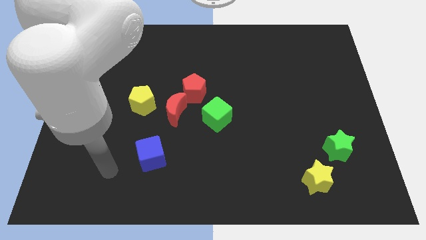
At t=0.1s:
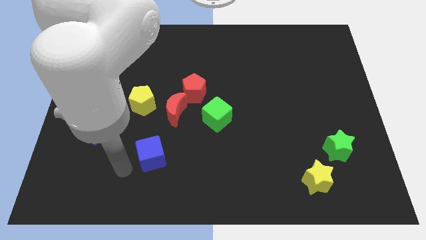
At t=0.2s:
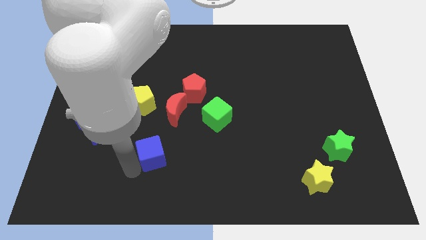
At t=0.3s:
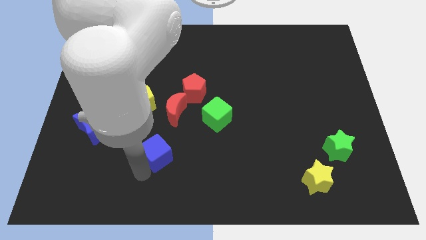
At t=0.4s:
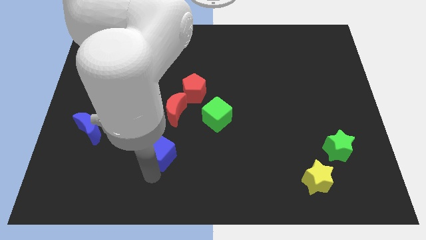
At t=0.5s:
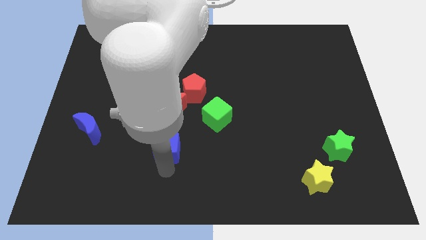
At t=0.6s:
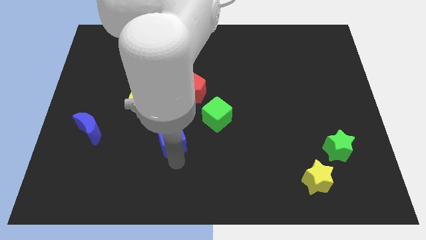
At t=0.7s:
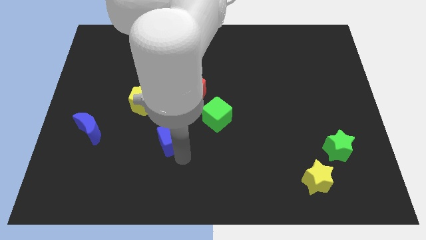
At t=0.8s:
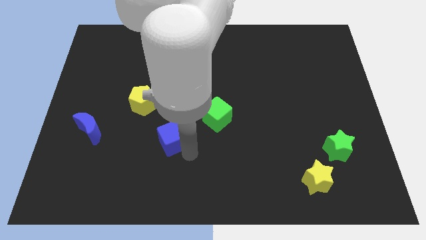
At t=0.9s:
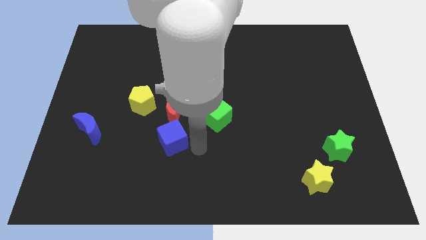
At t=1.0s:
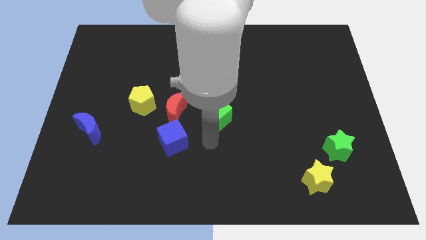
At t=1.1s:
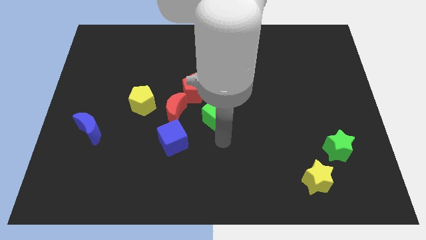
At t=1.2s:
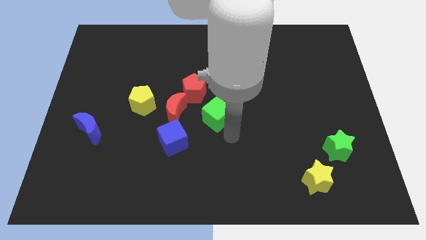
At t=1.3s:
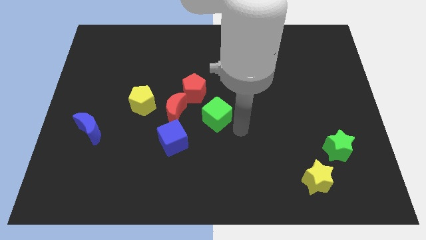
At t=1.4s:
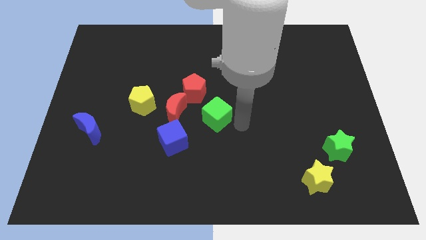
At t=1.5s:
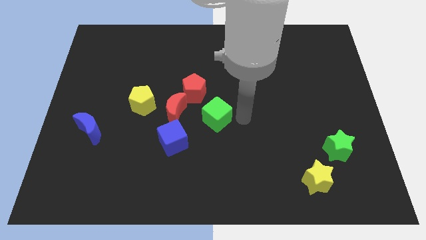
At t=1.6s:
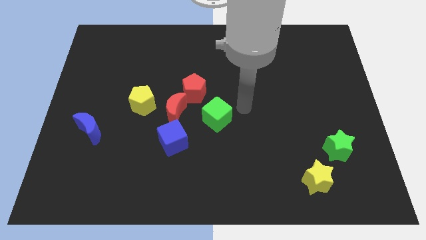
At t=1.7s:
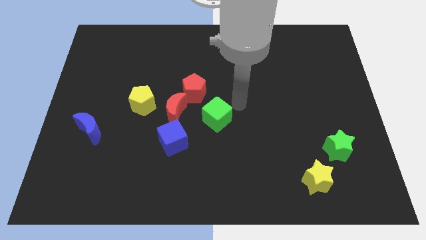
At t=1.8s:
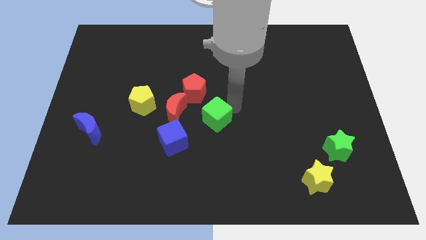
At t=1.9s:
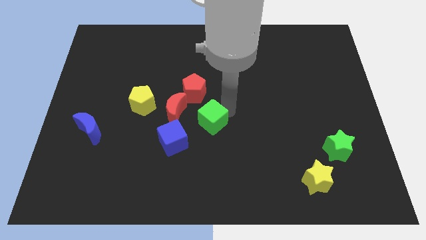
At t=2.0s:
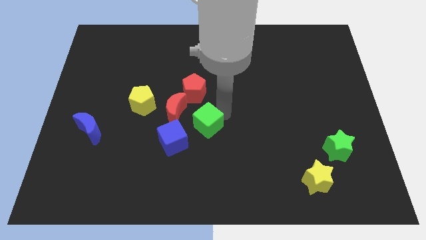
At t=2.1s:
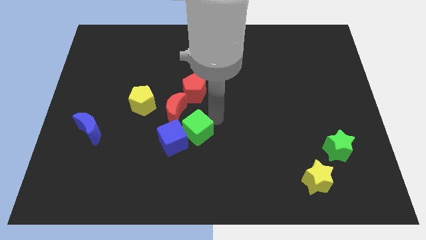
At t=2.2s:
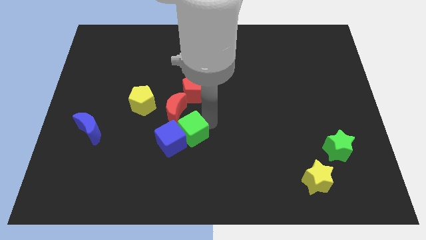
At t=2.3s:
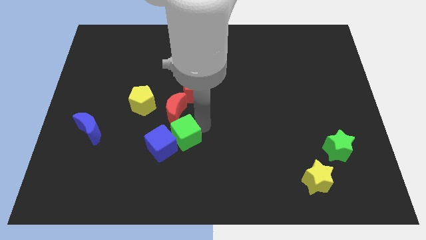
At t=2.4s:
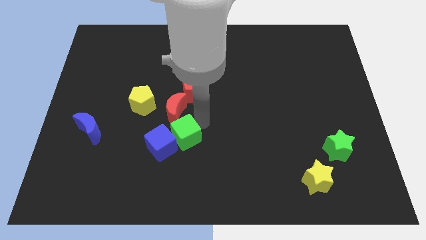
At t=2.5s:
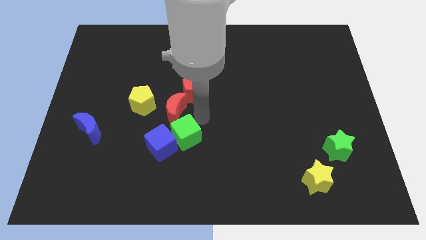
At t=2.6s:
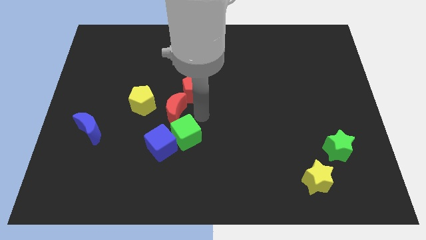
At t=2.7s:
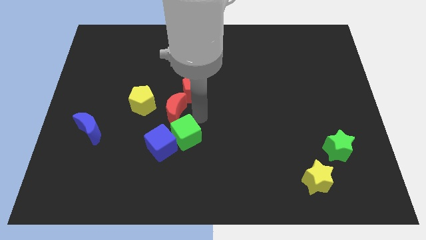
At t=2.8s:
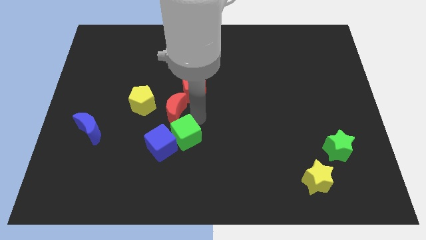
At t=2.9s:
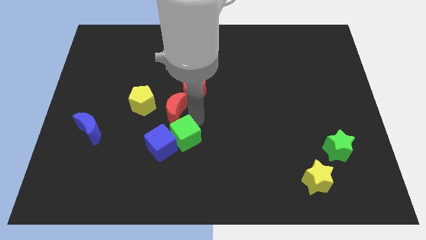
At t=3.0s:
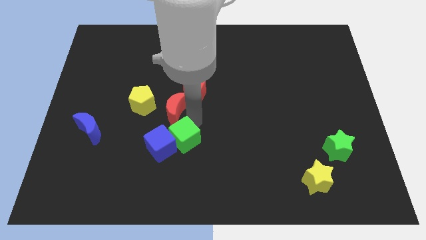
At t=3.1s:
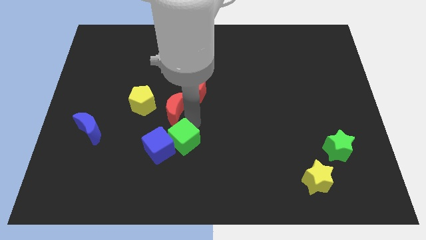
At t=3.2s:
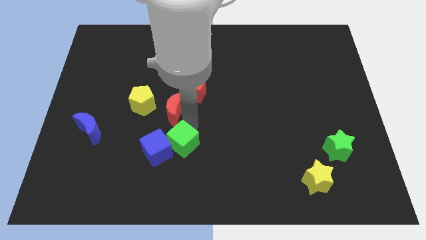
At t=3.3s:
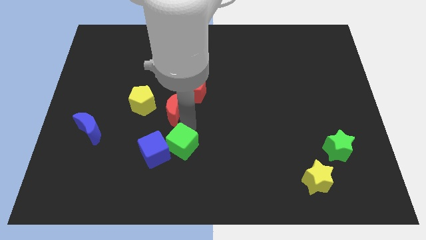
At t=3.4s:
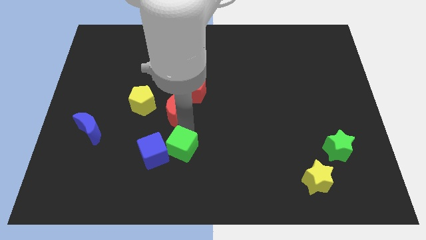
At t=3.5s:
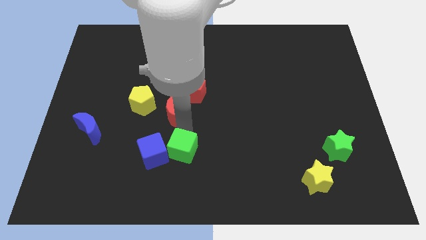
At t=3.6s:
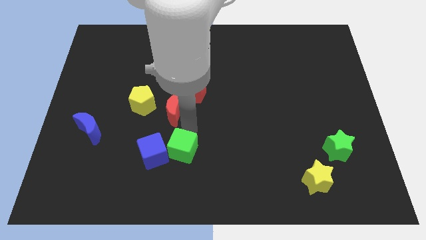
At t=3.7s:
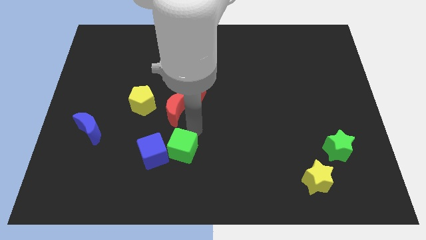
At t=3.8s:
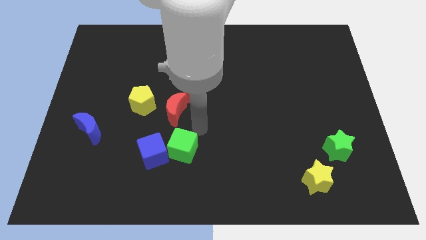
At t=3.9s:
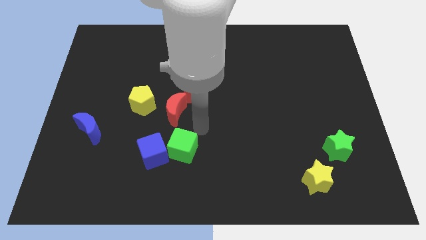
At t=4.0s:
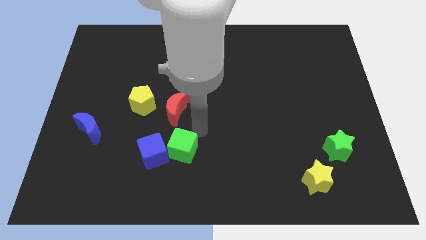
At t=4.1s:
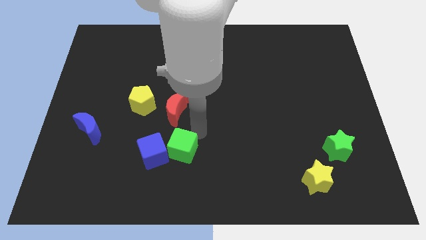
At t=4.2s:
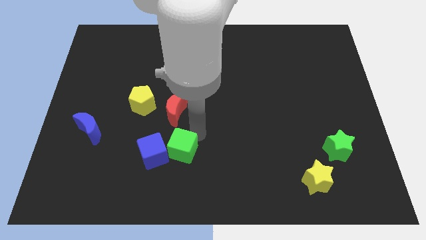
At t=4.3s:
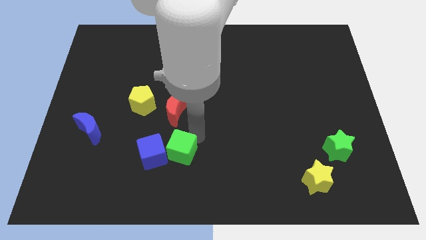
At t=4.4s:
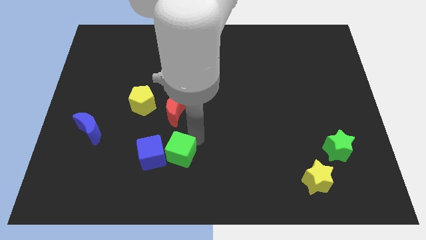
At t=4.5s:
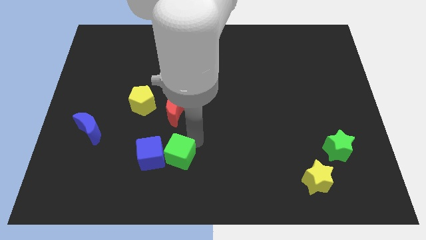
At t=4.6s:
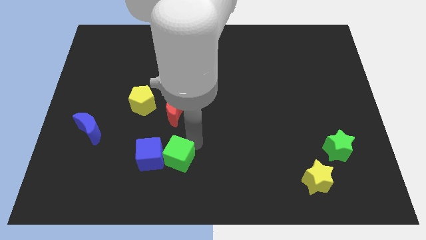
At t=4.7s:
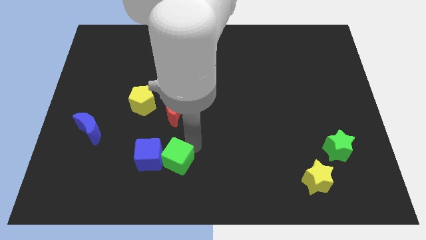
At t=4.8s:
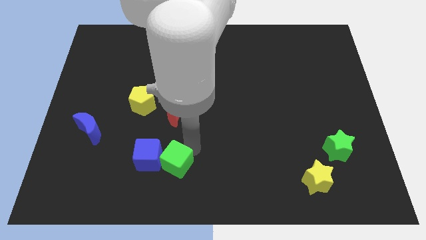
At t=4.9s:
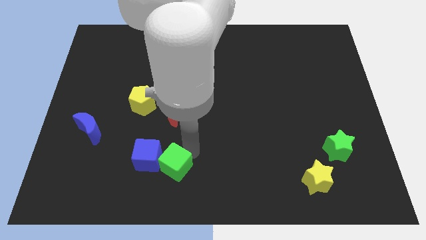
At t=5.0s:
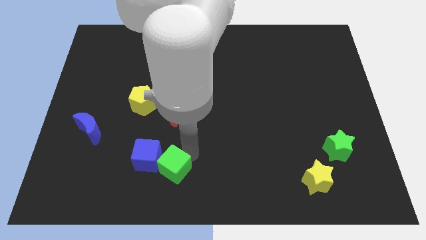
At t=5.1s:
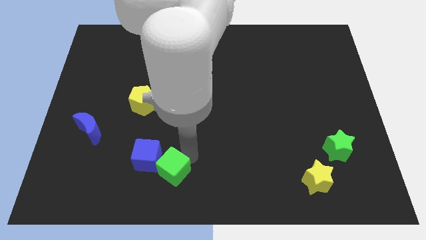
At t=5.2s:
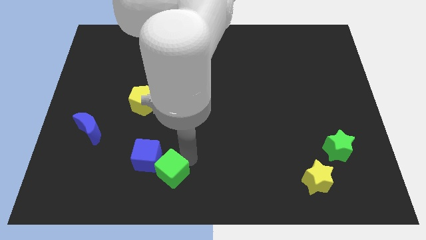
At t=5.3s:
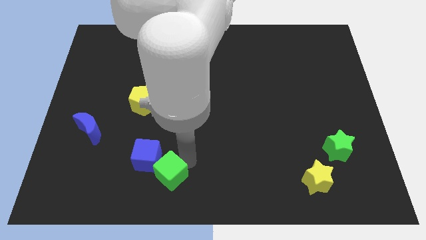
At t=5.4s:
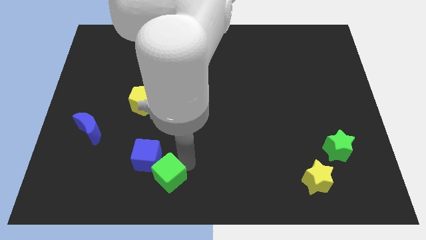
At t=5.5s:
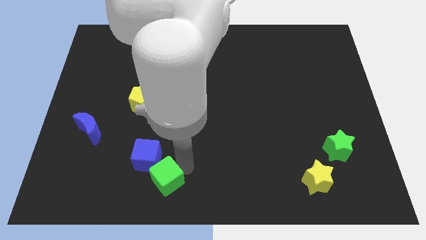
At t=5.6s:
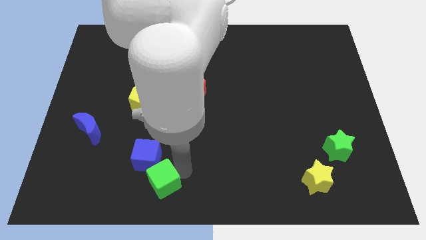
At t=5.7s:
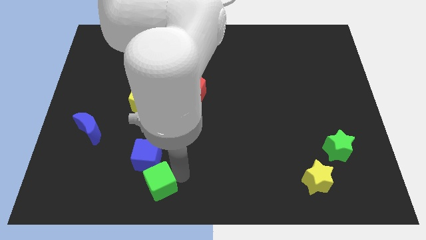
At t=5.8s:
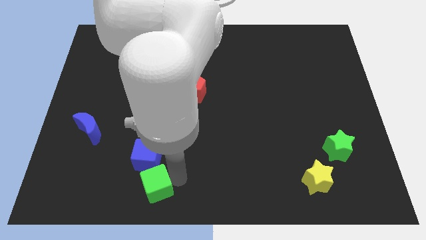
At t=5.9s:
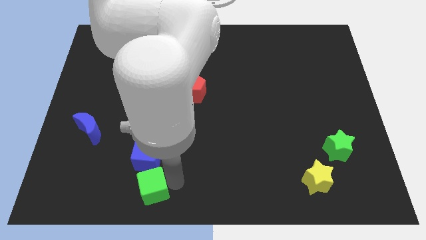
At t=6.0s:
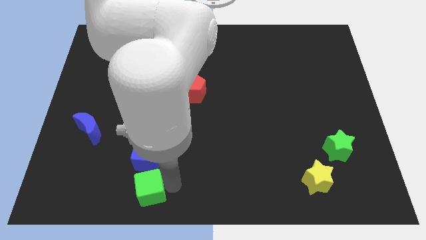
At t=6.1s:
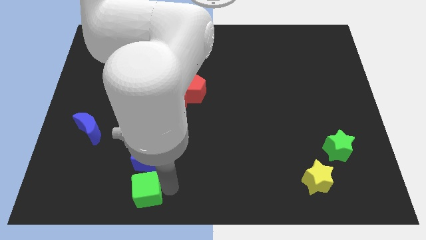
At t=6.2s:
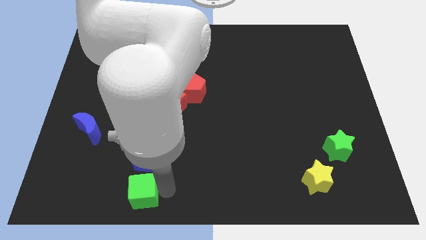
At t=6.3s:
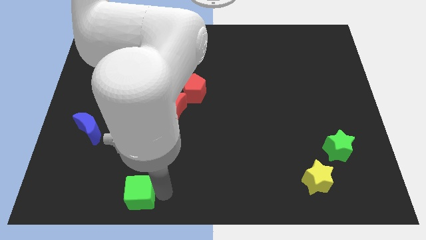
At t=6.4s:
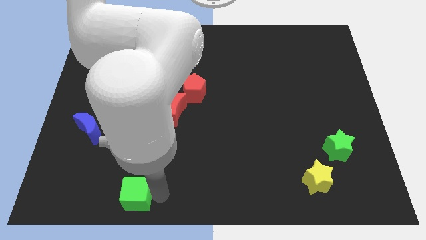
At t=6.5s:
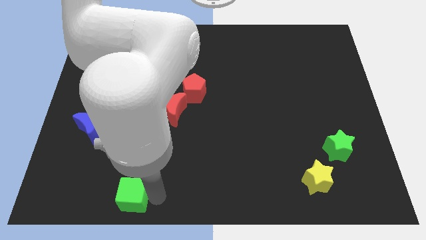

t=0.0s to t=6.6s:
move the green cube to the bottom left of the blue cube
